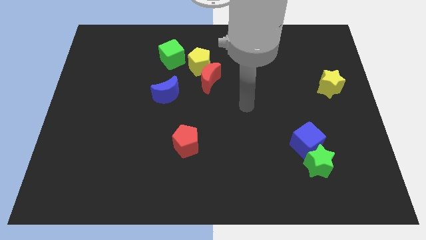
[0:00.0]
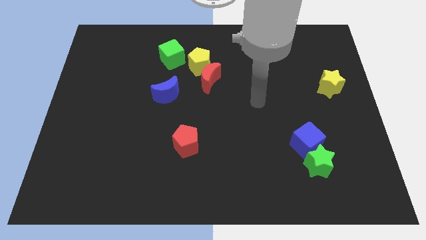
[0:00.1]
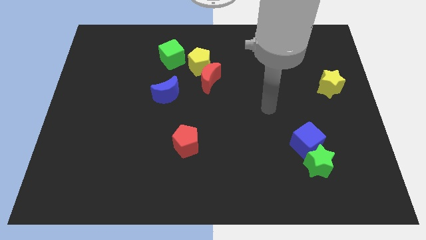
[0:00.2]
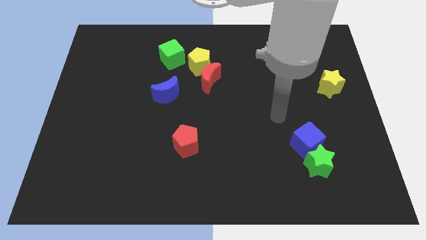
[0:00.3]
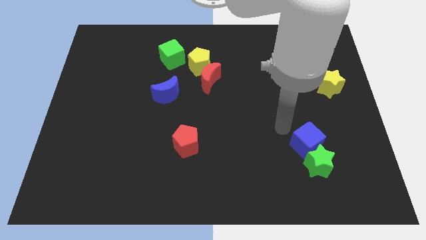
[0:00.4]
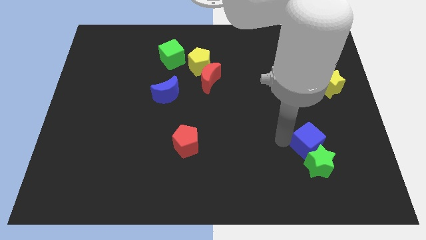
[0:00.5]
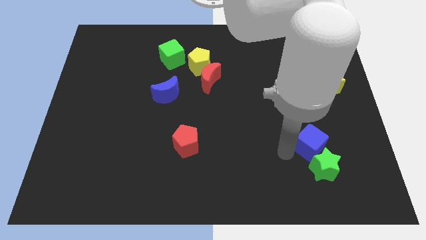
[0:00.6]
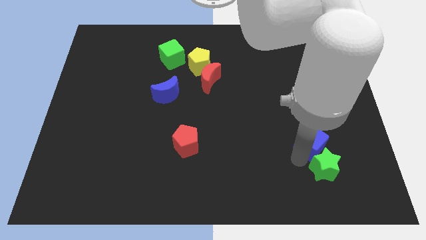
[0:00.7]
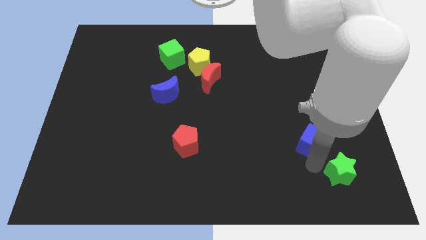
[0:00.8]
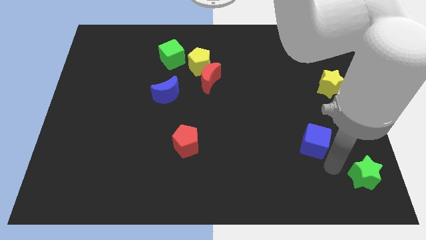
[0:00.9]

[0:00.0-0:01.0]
separate the blue cube from the green star

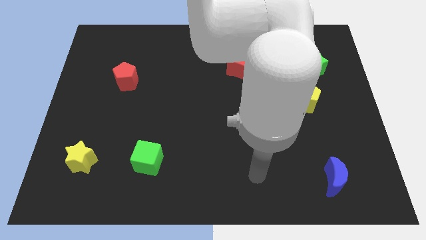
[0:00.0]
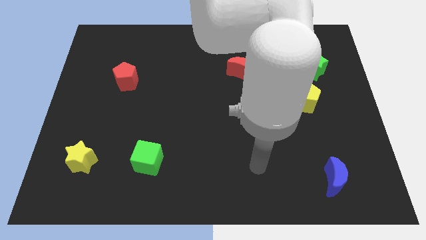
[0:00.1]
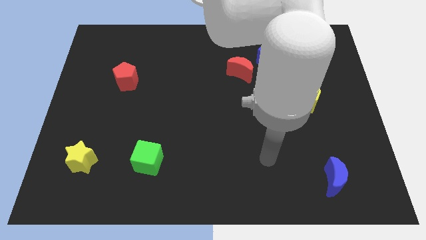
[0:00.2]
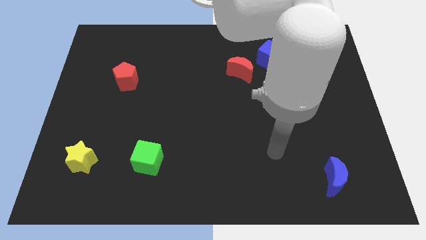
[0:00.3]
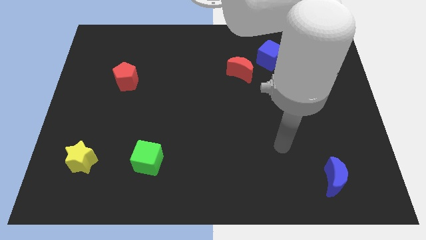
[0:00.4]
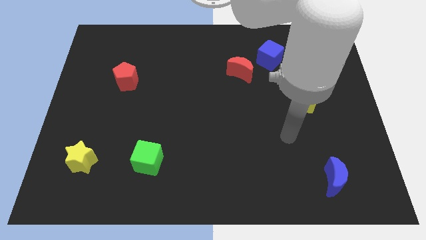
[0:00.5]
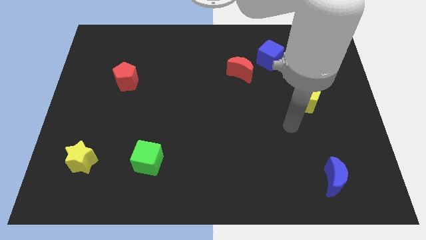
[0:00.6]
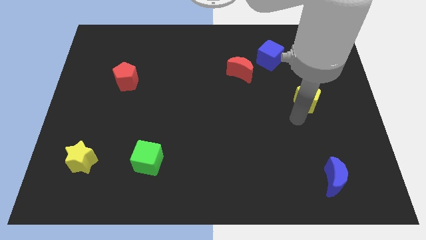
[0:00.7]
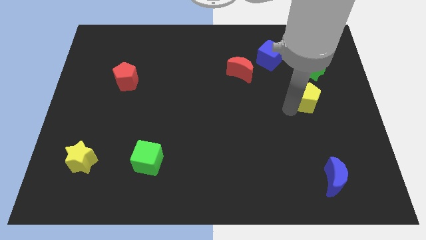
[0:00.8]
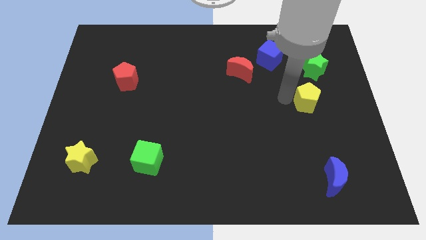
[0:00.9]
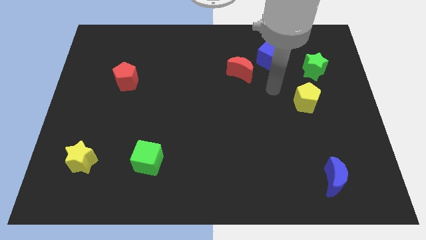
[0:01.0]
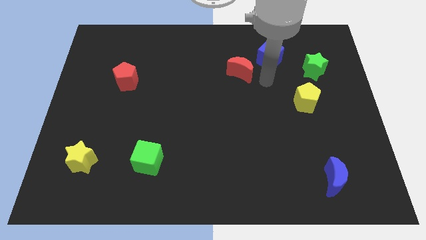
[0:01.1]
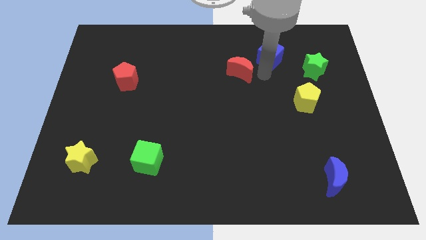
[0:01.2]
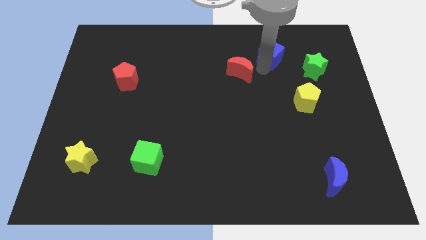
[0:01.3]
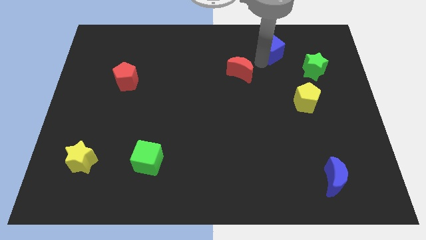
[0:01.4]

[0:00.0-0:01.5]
separate the red moon from the blue cube

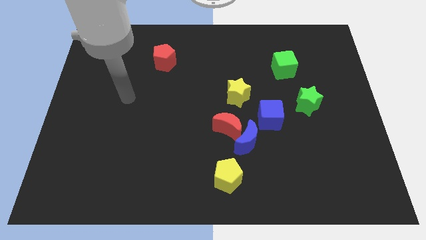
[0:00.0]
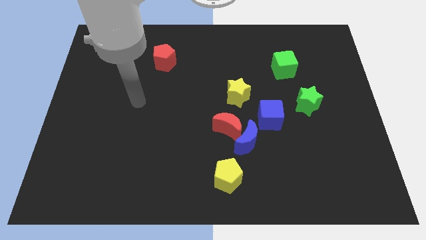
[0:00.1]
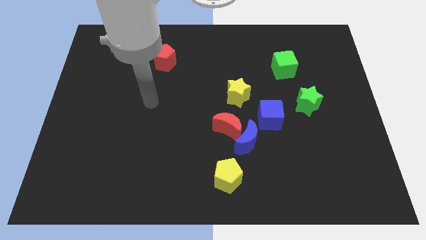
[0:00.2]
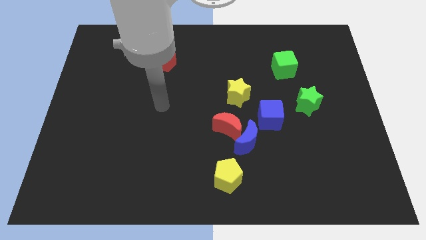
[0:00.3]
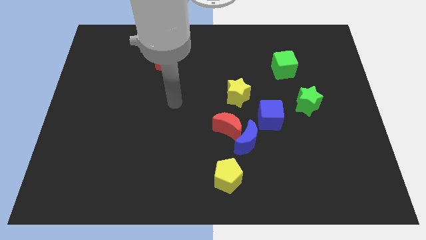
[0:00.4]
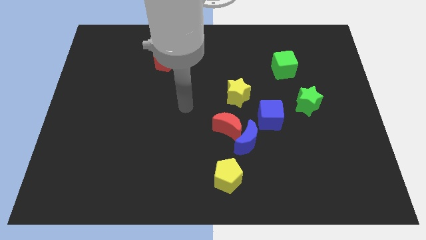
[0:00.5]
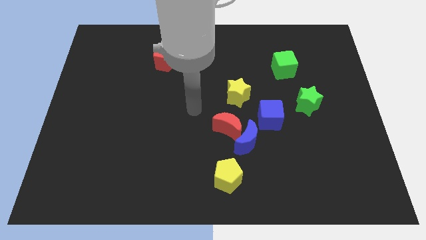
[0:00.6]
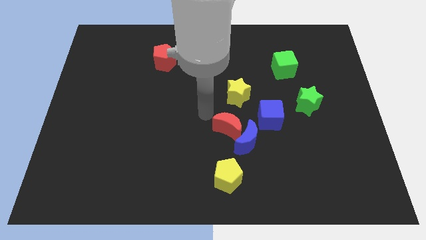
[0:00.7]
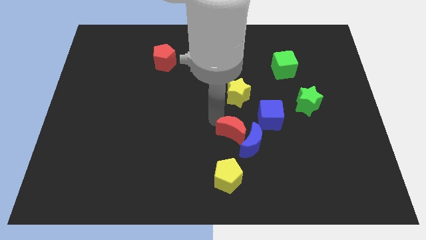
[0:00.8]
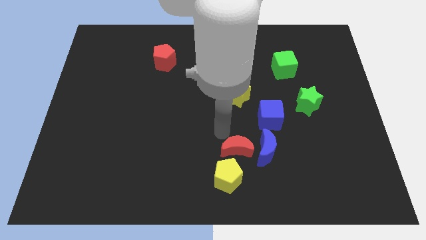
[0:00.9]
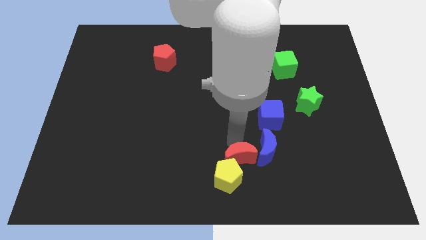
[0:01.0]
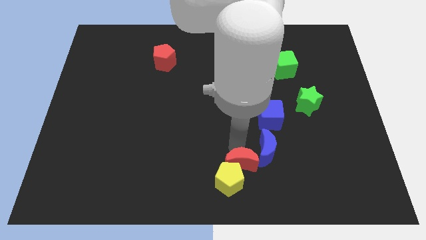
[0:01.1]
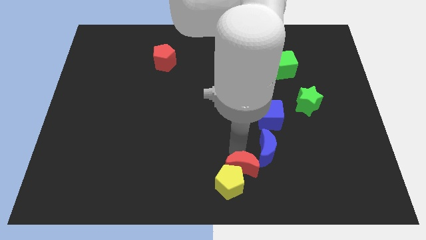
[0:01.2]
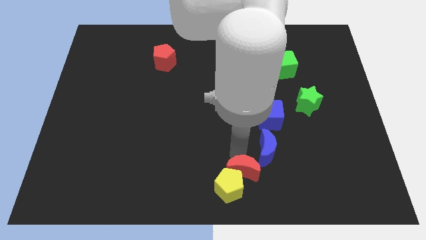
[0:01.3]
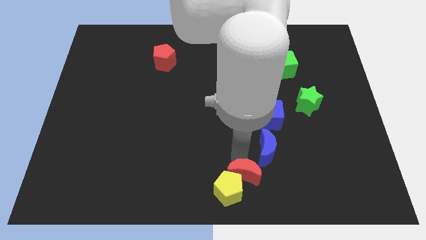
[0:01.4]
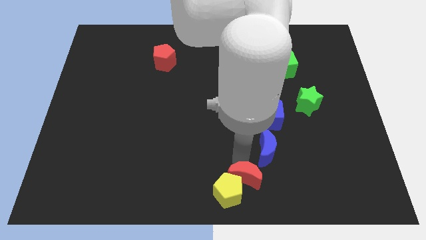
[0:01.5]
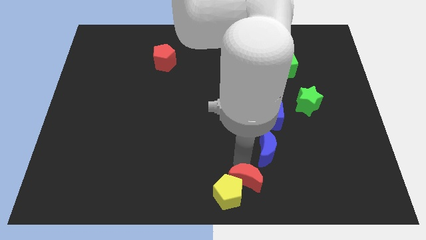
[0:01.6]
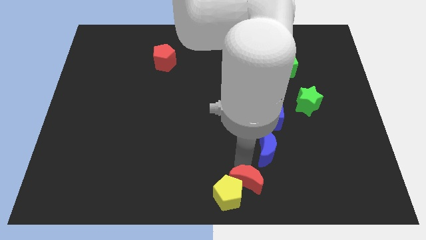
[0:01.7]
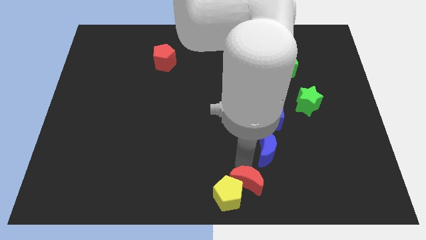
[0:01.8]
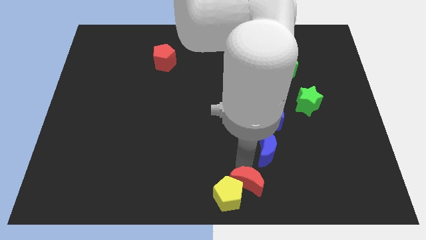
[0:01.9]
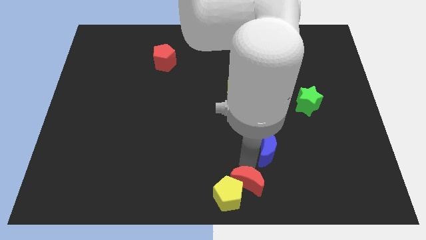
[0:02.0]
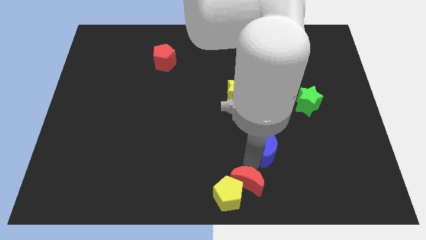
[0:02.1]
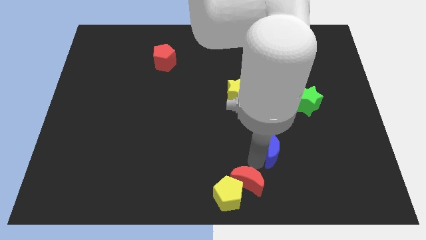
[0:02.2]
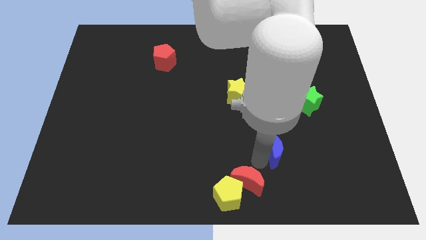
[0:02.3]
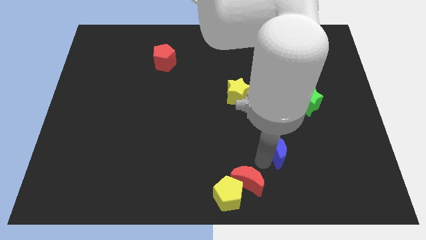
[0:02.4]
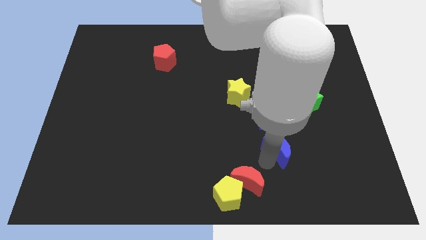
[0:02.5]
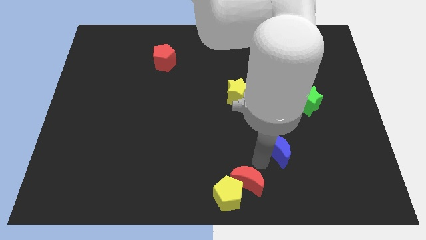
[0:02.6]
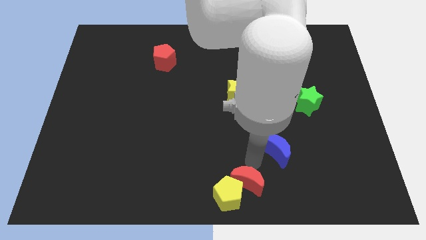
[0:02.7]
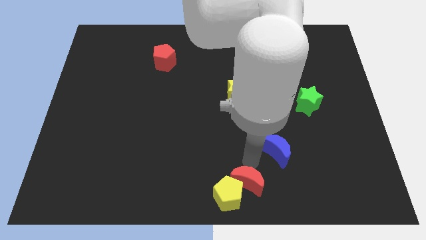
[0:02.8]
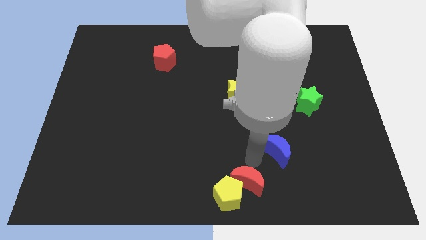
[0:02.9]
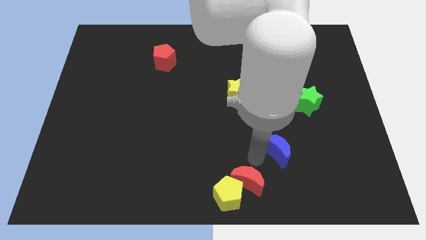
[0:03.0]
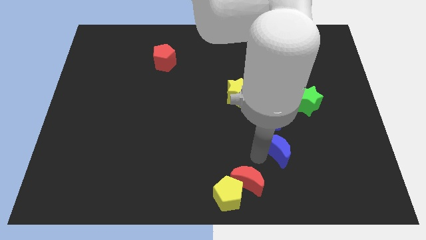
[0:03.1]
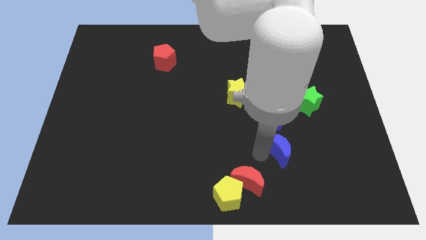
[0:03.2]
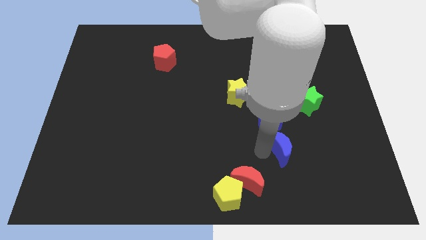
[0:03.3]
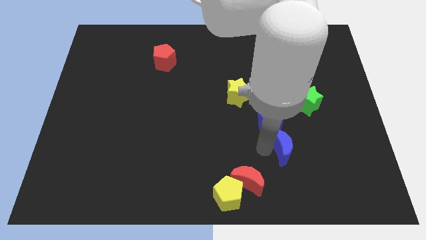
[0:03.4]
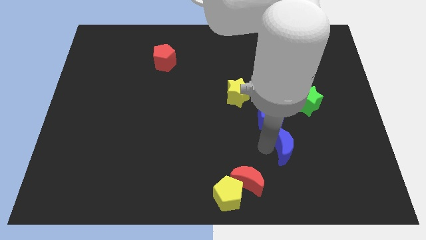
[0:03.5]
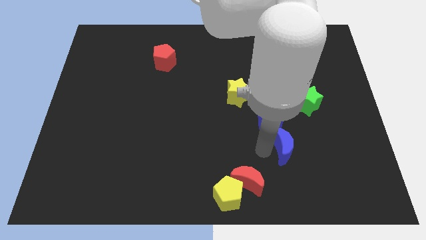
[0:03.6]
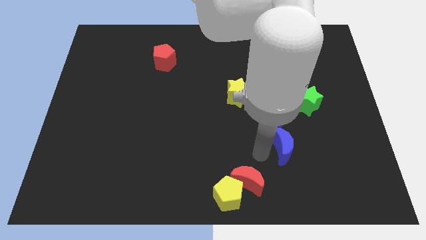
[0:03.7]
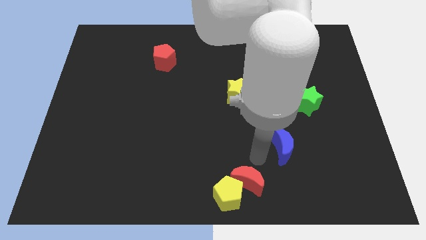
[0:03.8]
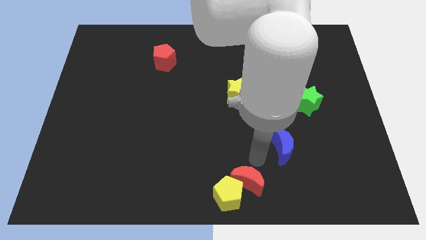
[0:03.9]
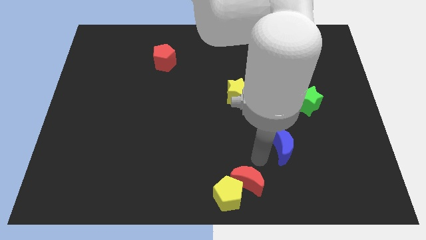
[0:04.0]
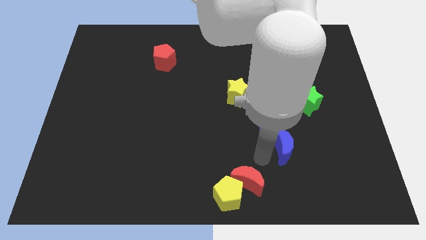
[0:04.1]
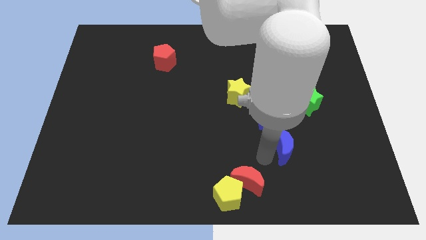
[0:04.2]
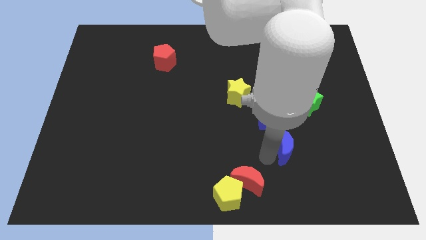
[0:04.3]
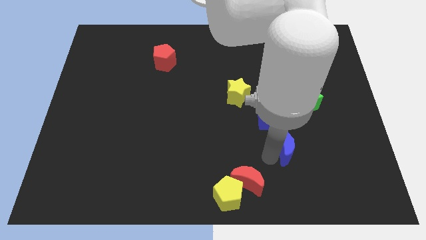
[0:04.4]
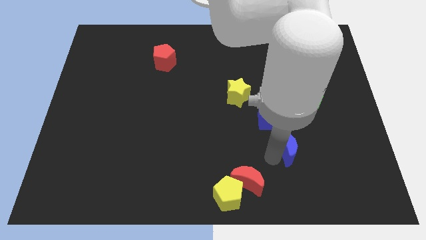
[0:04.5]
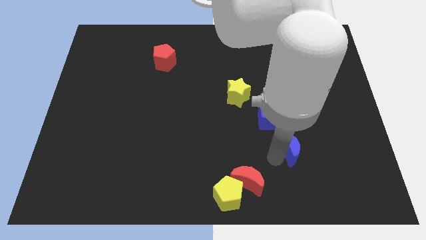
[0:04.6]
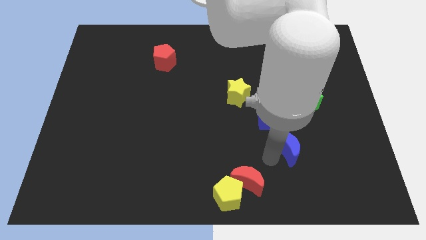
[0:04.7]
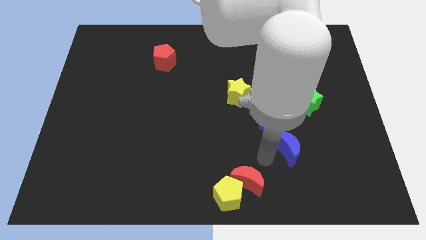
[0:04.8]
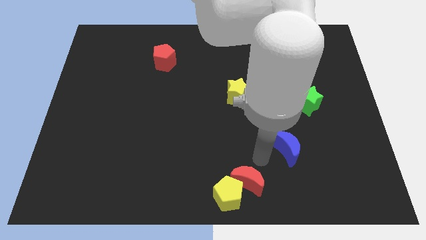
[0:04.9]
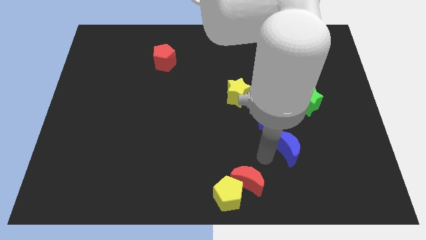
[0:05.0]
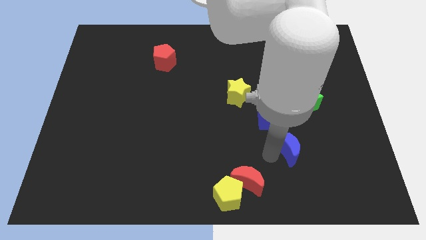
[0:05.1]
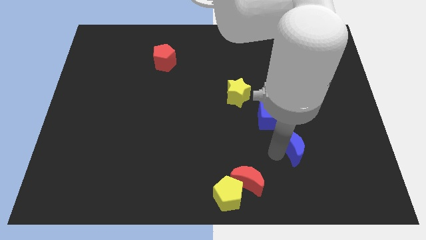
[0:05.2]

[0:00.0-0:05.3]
separate the blue moon from the red moon, blue cube, and yellow pentagon

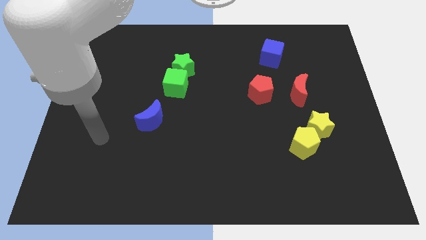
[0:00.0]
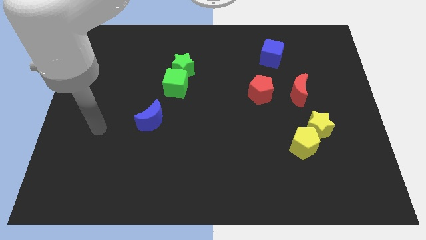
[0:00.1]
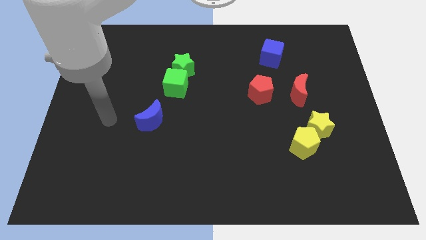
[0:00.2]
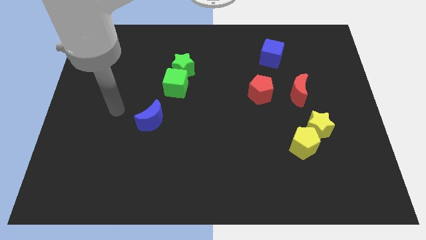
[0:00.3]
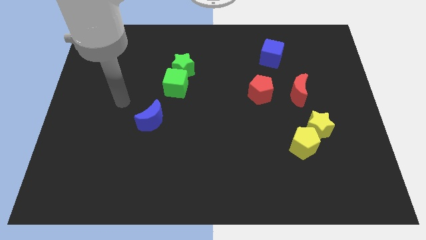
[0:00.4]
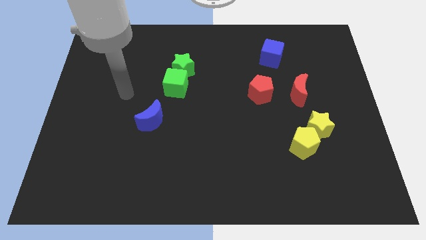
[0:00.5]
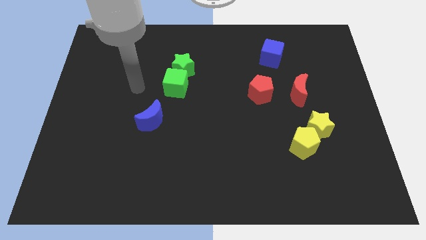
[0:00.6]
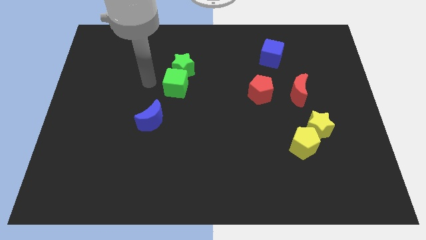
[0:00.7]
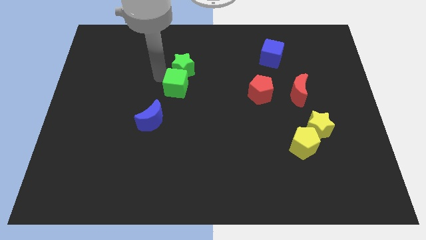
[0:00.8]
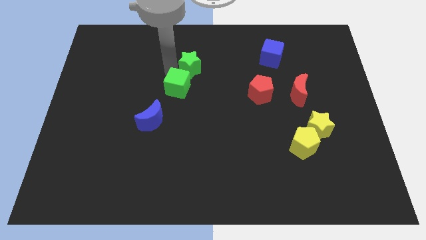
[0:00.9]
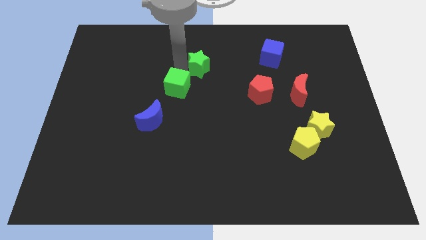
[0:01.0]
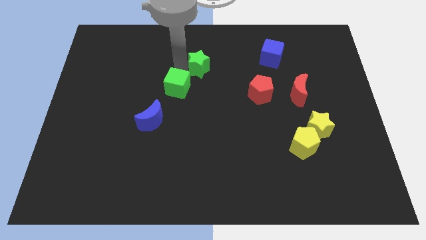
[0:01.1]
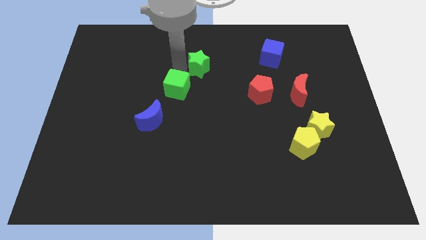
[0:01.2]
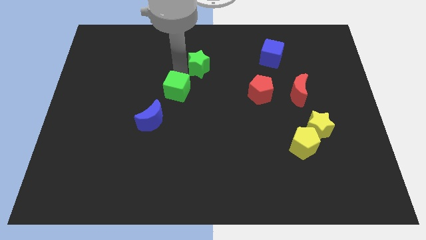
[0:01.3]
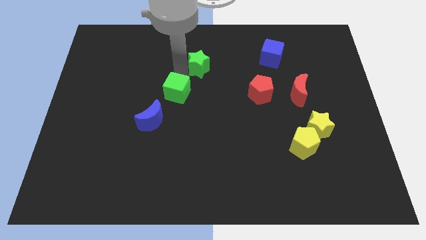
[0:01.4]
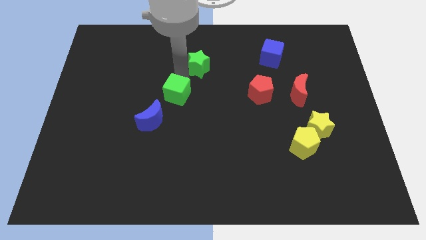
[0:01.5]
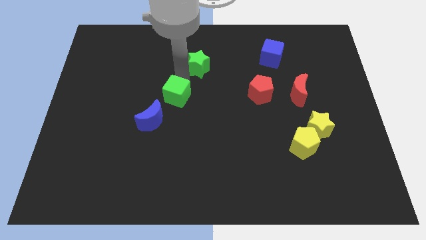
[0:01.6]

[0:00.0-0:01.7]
move the green cube away from the green star
